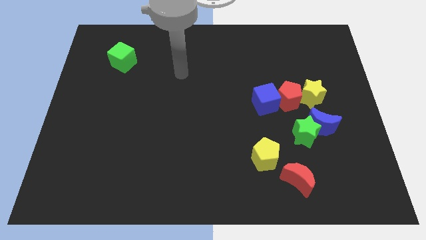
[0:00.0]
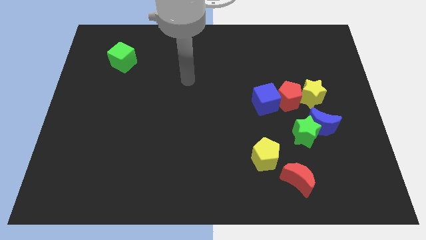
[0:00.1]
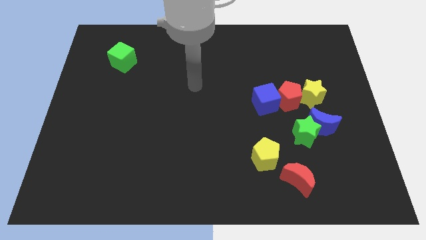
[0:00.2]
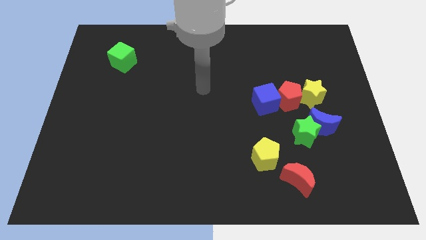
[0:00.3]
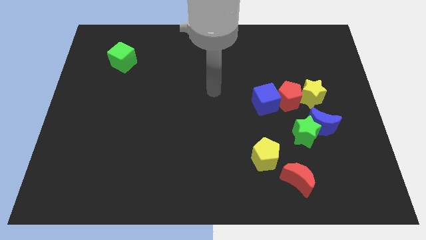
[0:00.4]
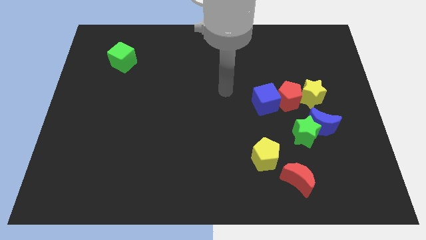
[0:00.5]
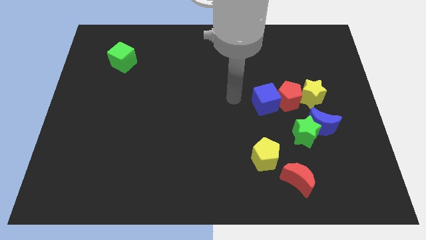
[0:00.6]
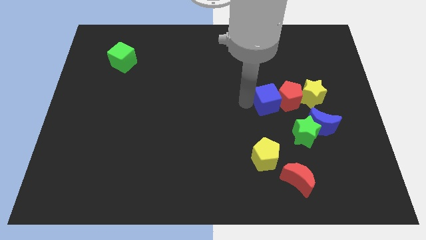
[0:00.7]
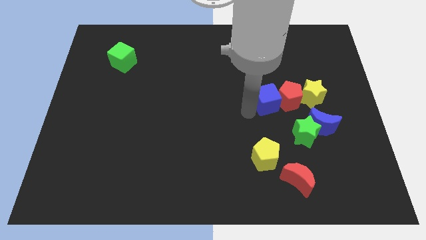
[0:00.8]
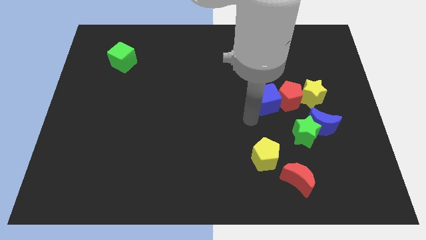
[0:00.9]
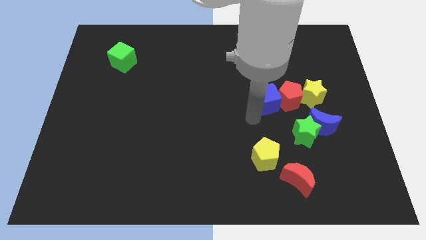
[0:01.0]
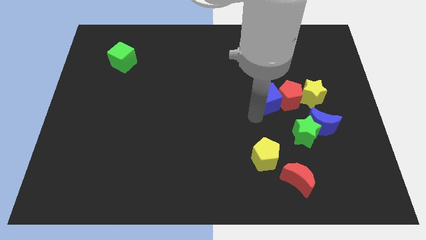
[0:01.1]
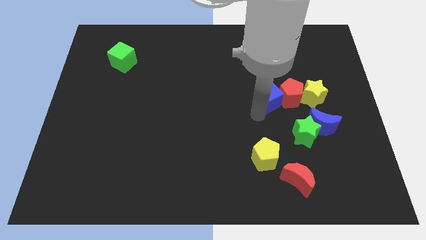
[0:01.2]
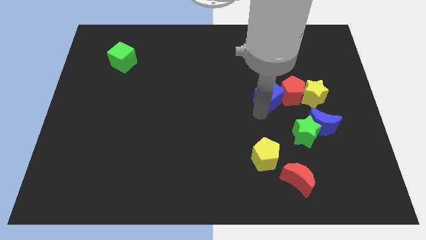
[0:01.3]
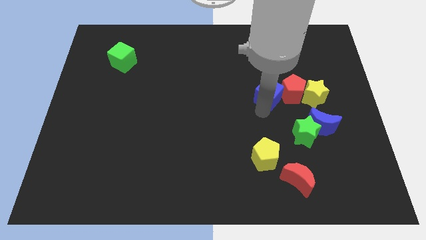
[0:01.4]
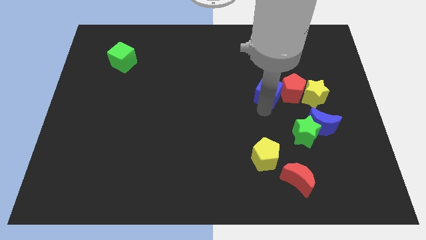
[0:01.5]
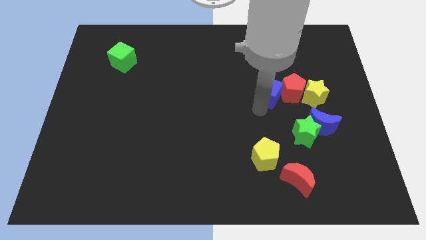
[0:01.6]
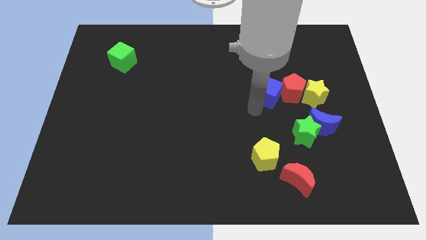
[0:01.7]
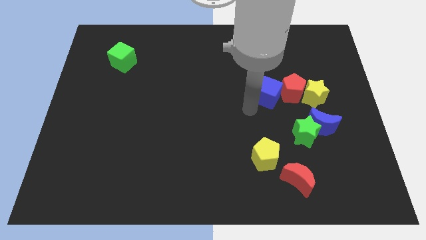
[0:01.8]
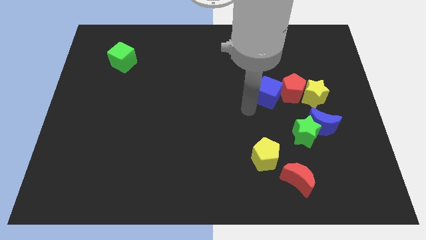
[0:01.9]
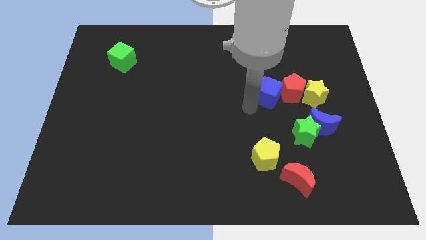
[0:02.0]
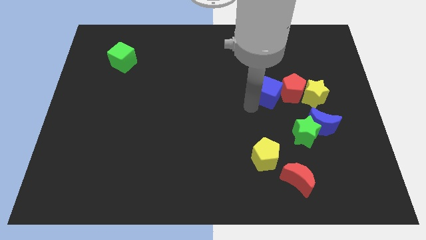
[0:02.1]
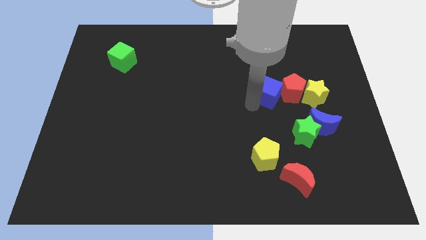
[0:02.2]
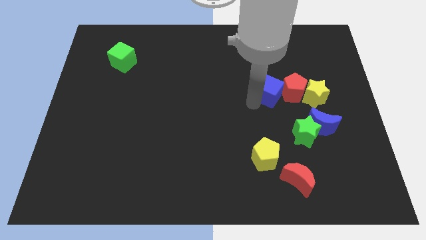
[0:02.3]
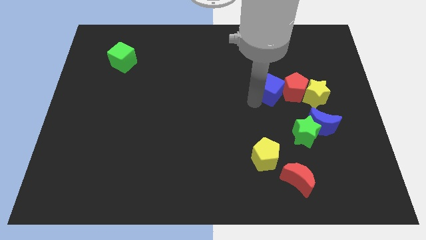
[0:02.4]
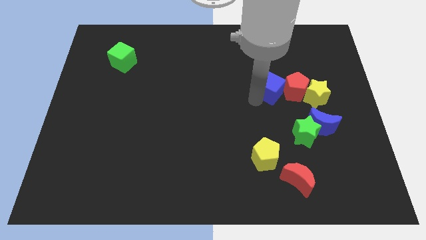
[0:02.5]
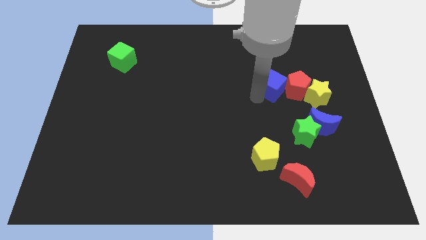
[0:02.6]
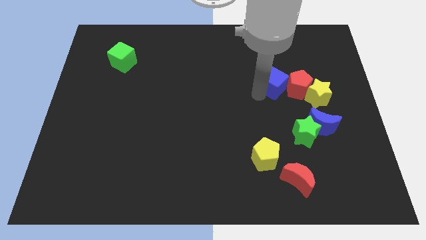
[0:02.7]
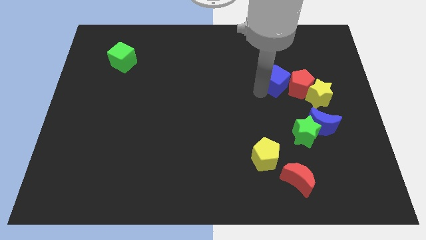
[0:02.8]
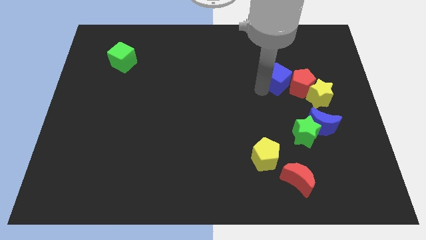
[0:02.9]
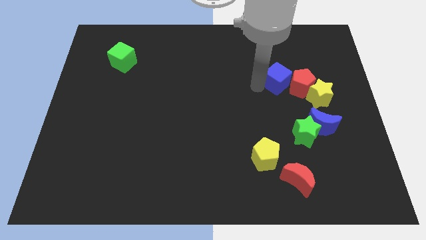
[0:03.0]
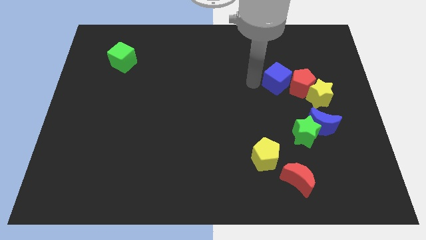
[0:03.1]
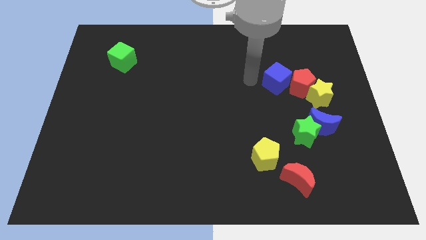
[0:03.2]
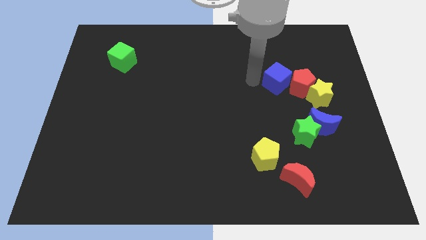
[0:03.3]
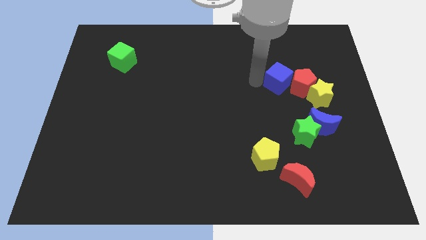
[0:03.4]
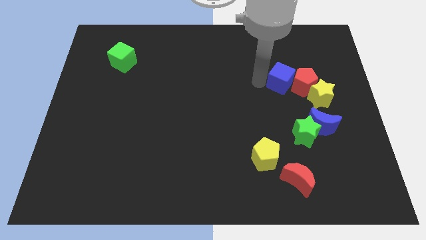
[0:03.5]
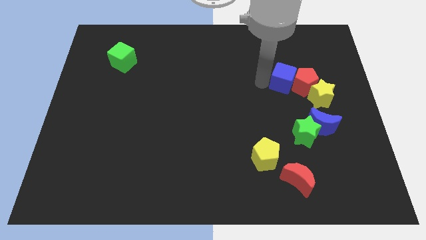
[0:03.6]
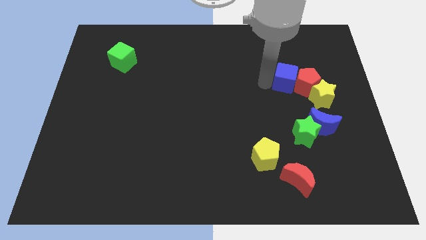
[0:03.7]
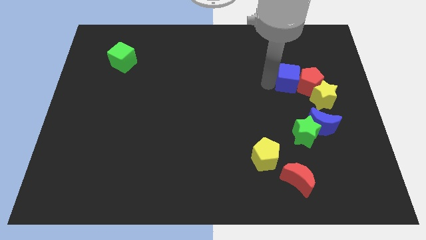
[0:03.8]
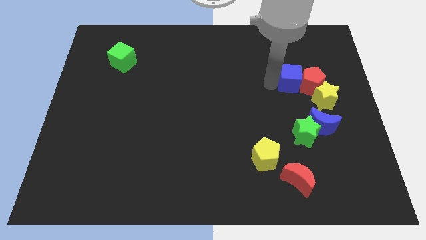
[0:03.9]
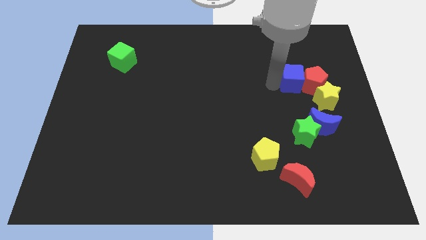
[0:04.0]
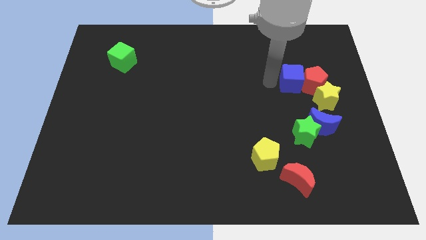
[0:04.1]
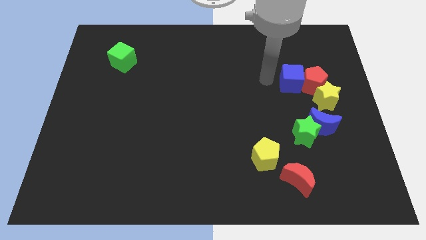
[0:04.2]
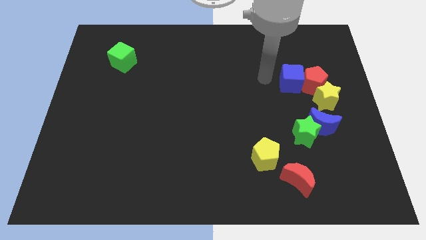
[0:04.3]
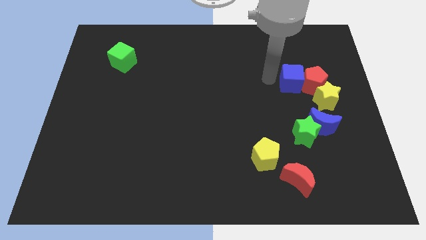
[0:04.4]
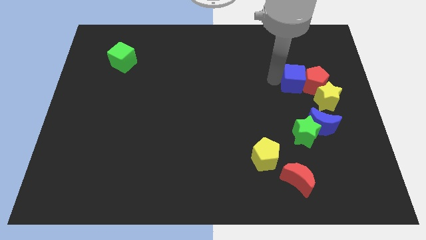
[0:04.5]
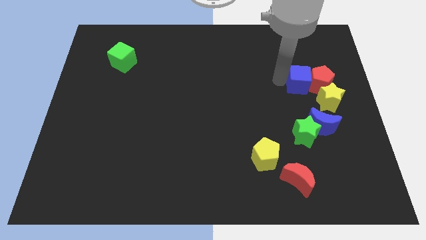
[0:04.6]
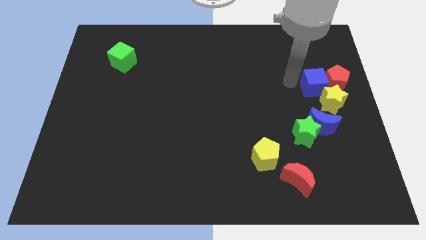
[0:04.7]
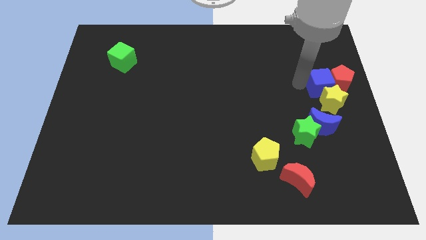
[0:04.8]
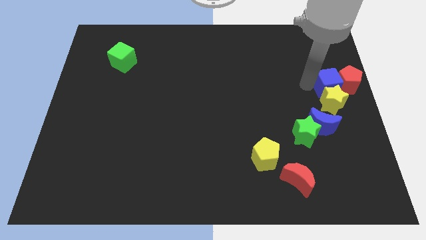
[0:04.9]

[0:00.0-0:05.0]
move the blue cube to the top right side of the yellow star

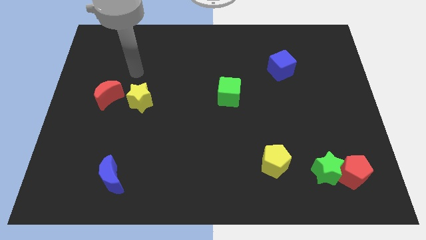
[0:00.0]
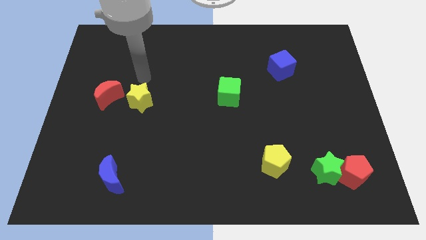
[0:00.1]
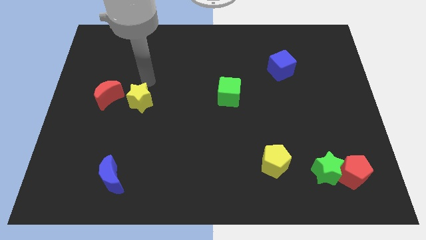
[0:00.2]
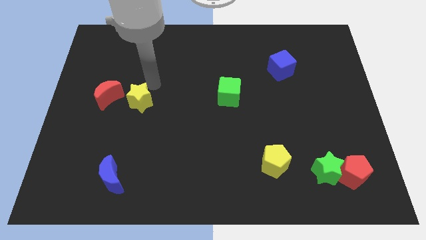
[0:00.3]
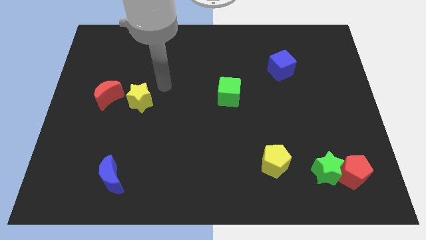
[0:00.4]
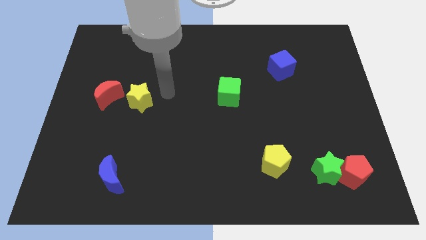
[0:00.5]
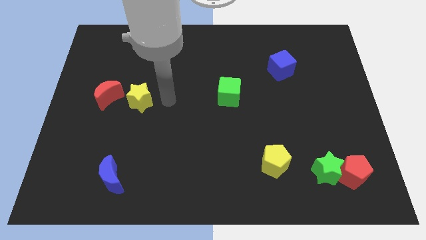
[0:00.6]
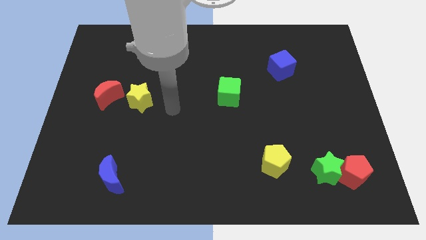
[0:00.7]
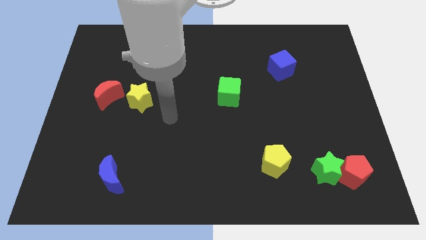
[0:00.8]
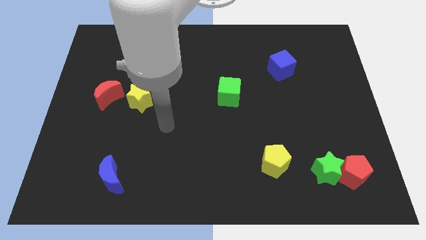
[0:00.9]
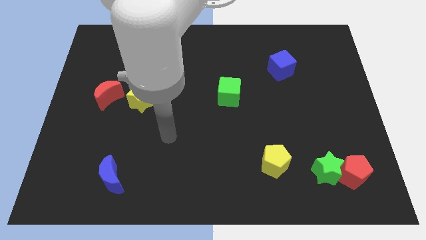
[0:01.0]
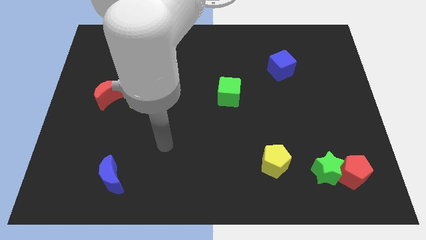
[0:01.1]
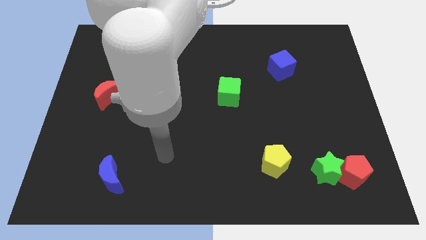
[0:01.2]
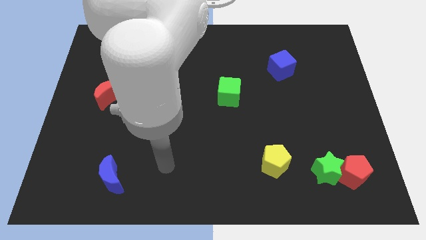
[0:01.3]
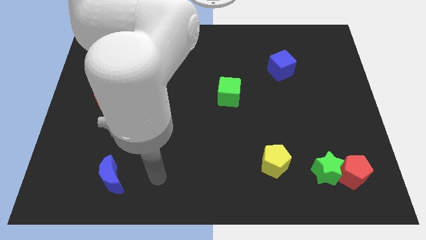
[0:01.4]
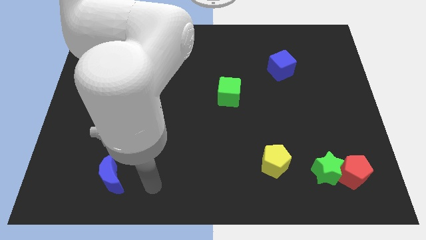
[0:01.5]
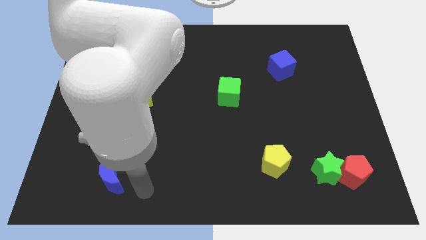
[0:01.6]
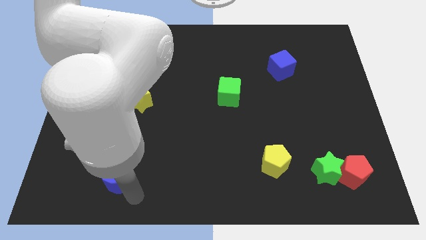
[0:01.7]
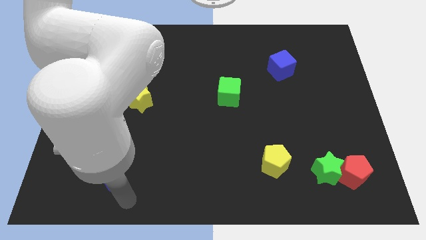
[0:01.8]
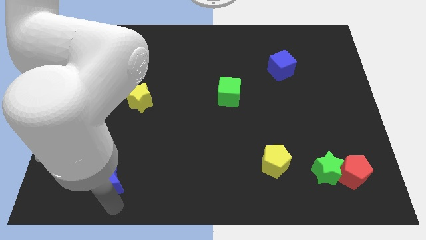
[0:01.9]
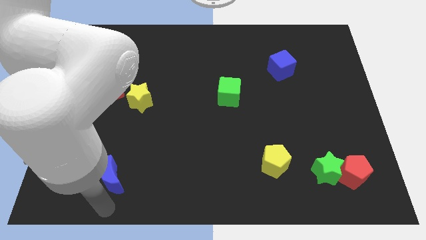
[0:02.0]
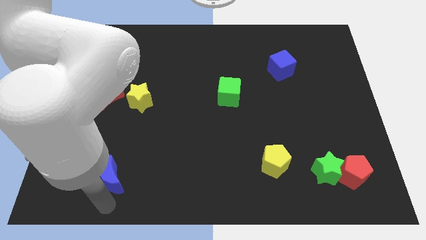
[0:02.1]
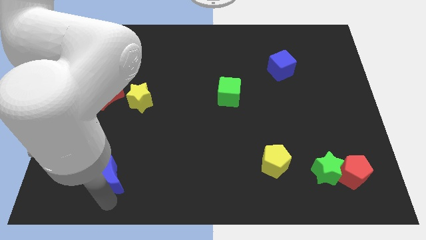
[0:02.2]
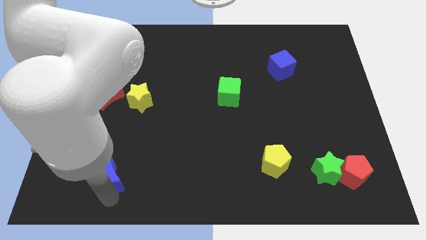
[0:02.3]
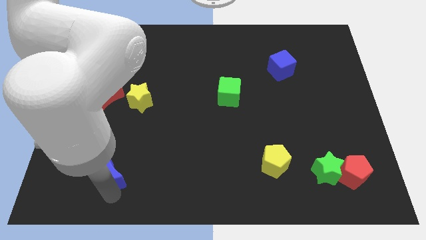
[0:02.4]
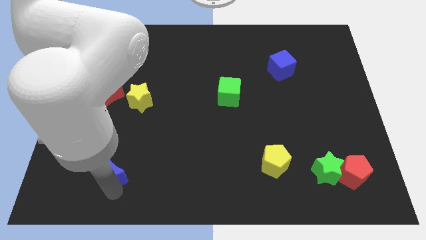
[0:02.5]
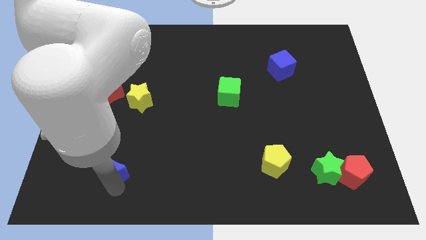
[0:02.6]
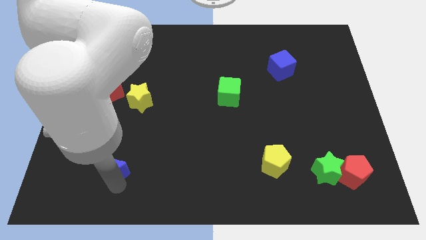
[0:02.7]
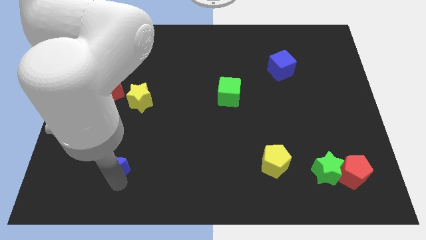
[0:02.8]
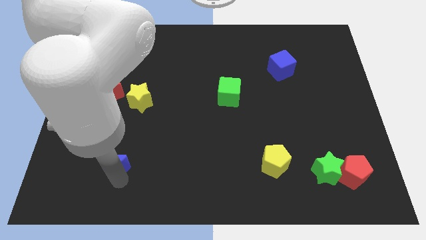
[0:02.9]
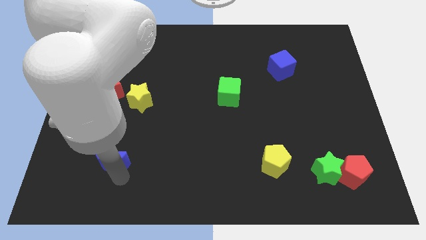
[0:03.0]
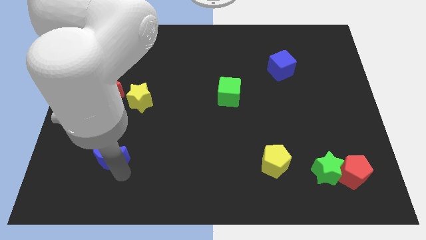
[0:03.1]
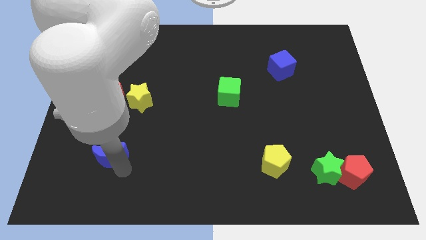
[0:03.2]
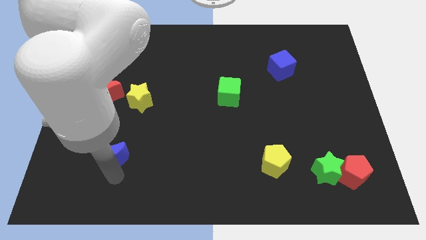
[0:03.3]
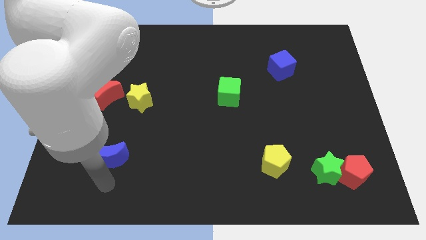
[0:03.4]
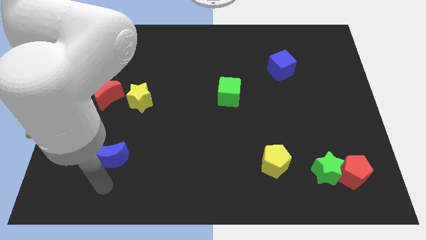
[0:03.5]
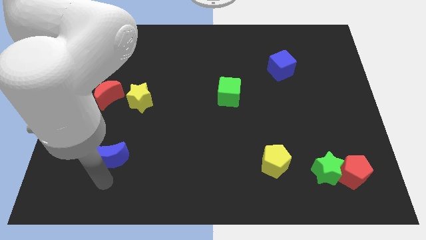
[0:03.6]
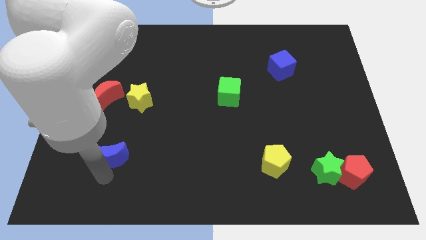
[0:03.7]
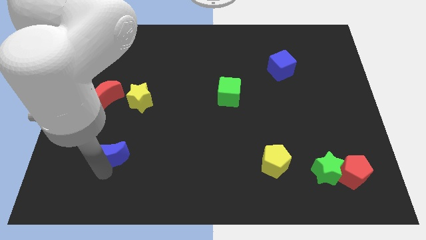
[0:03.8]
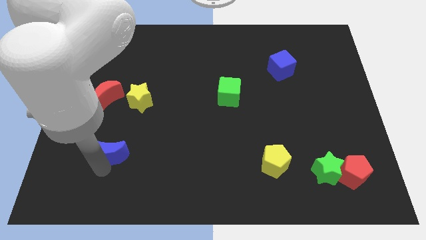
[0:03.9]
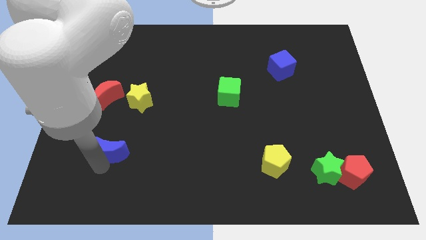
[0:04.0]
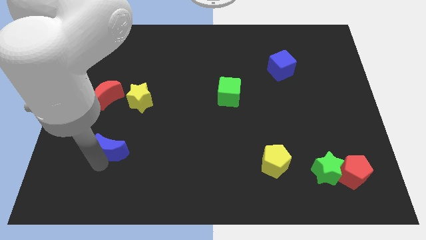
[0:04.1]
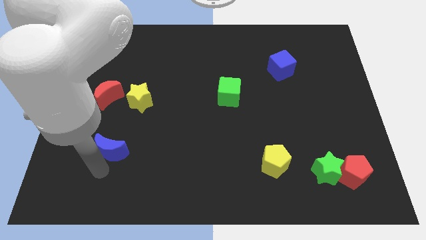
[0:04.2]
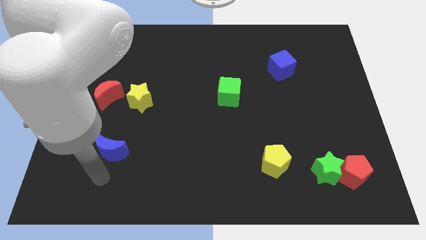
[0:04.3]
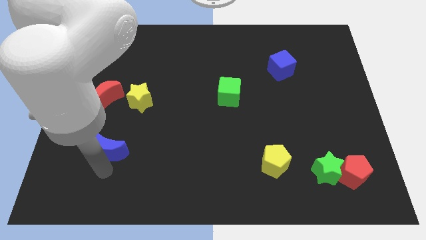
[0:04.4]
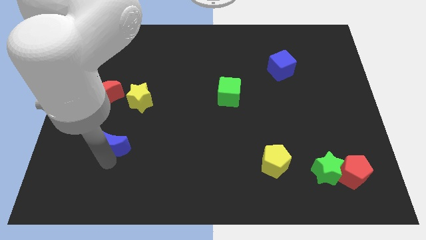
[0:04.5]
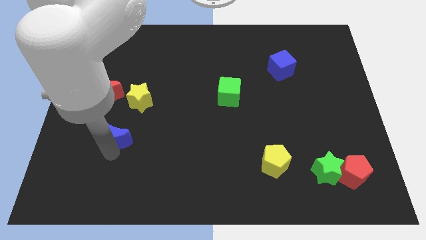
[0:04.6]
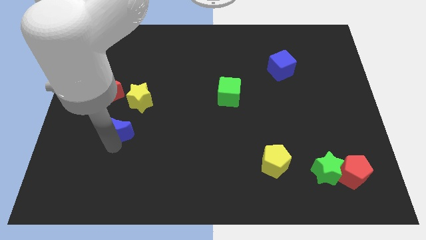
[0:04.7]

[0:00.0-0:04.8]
push the blue moon to the bottom right side of the red moon
